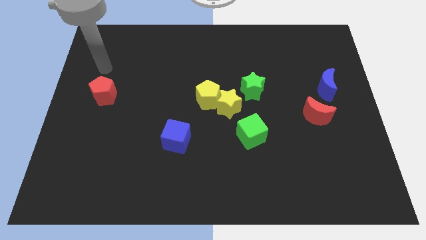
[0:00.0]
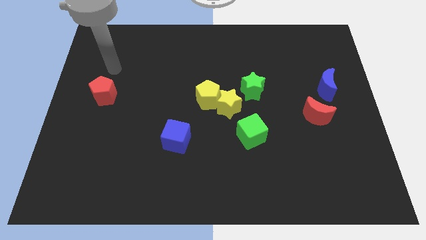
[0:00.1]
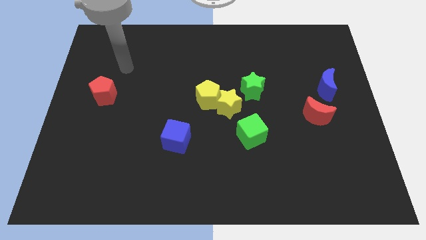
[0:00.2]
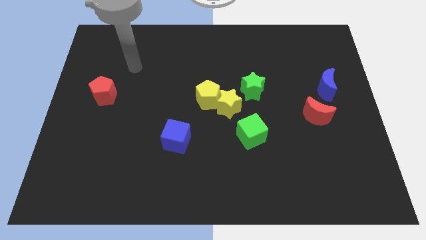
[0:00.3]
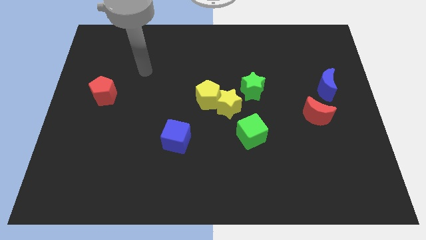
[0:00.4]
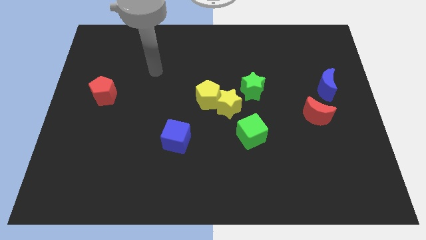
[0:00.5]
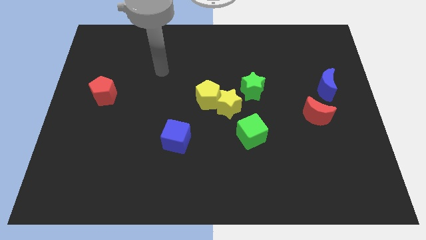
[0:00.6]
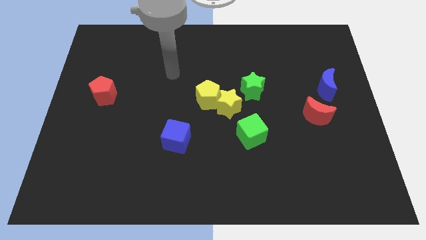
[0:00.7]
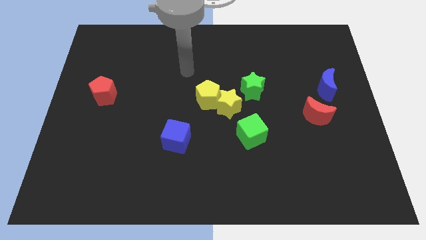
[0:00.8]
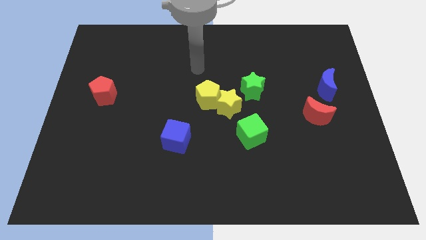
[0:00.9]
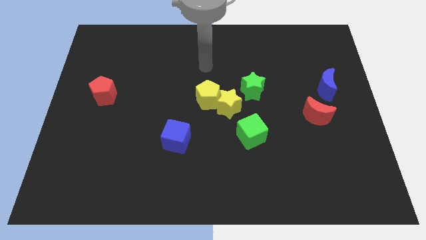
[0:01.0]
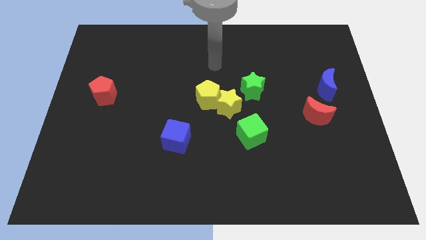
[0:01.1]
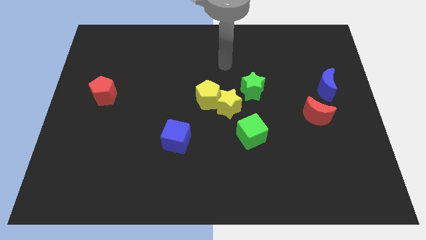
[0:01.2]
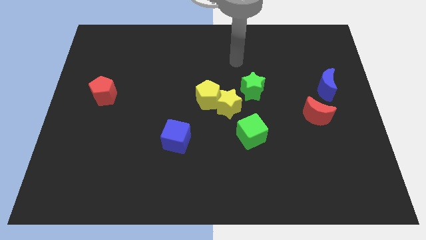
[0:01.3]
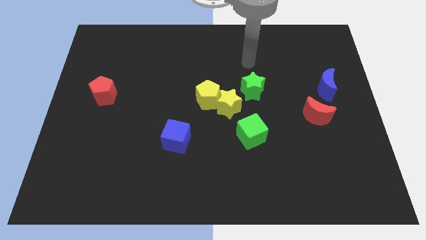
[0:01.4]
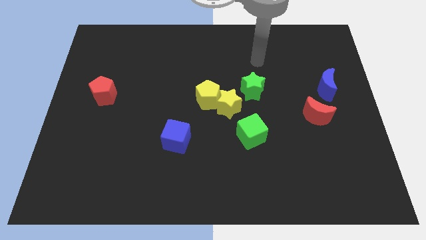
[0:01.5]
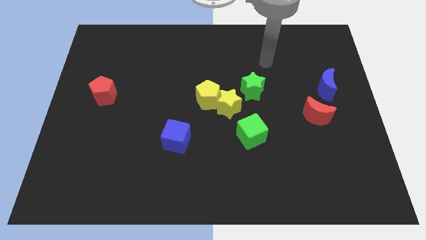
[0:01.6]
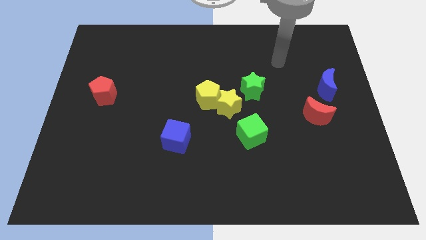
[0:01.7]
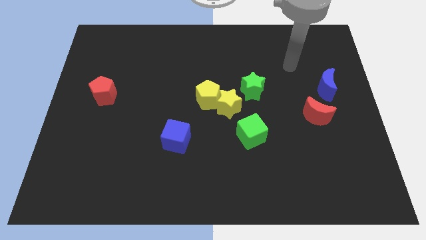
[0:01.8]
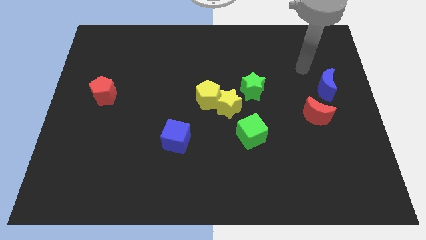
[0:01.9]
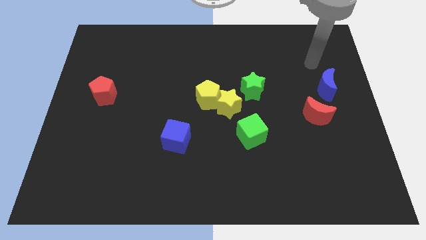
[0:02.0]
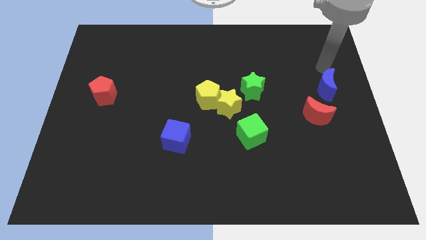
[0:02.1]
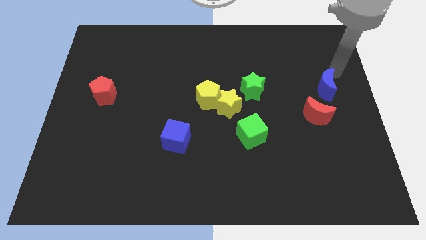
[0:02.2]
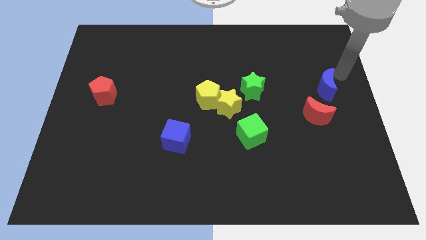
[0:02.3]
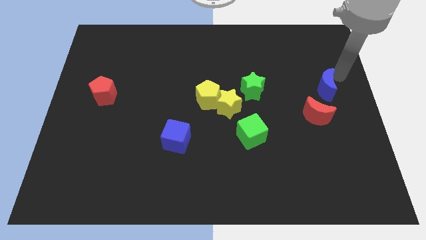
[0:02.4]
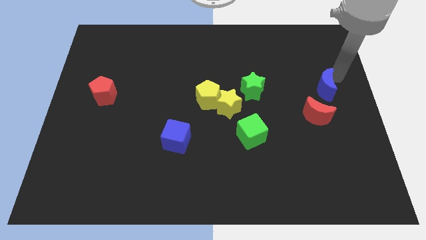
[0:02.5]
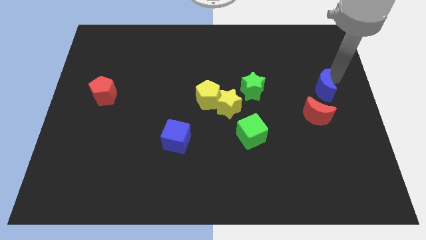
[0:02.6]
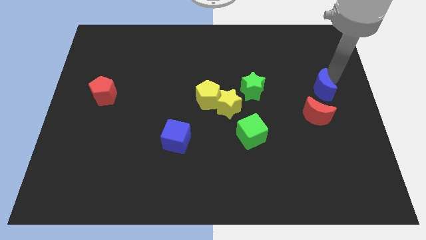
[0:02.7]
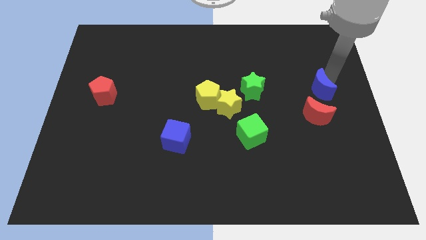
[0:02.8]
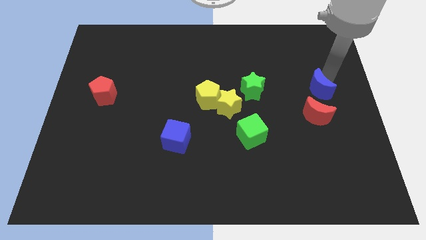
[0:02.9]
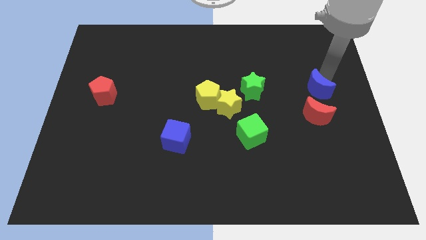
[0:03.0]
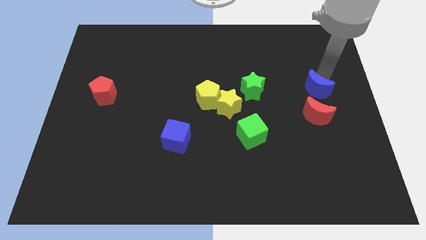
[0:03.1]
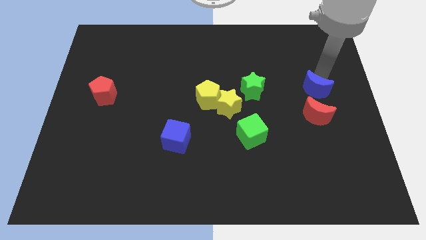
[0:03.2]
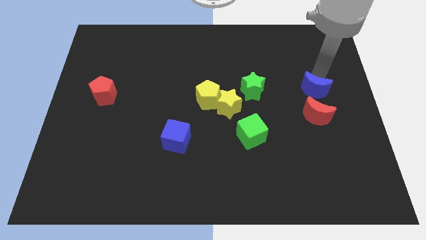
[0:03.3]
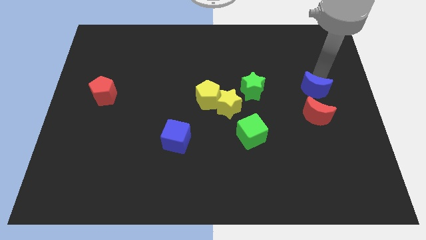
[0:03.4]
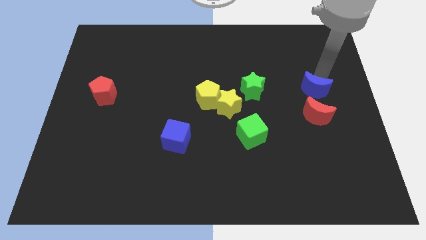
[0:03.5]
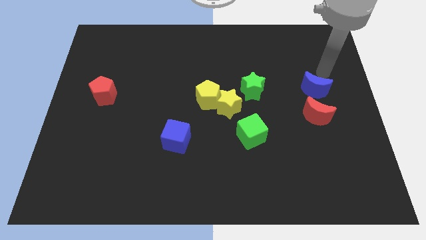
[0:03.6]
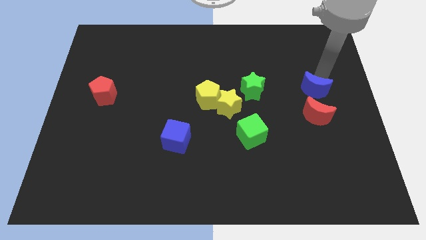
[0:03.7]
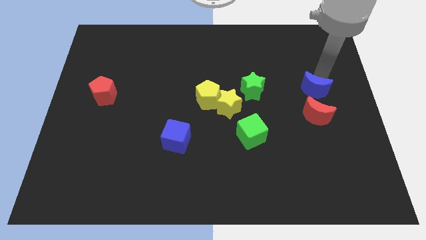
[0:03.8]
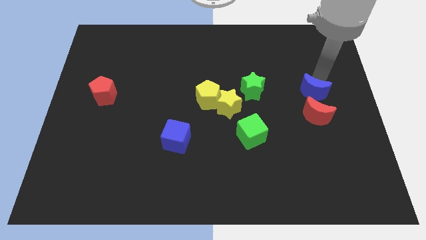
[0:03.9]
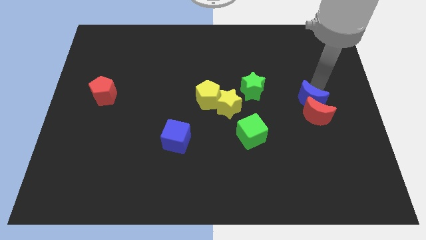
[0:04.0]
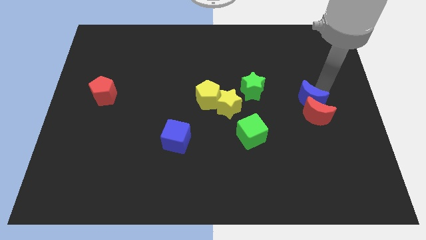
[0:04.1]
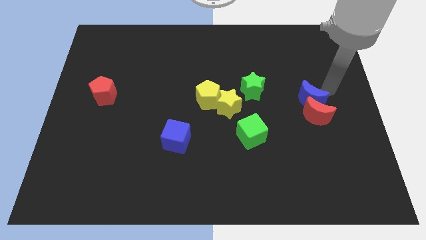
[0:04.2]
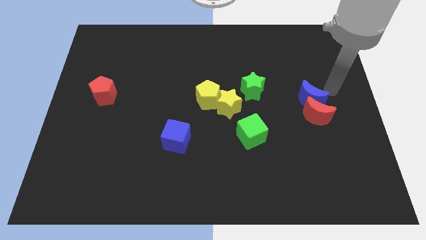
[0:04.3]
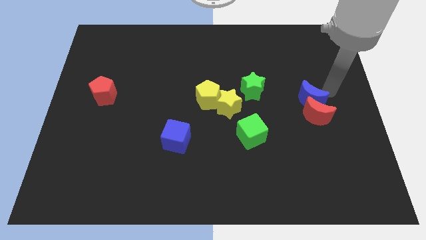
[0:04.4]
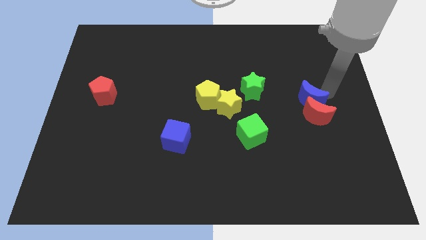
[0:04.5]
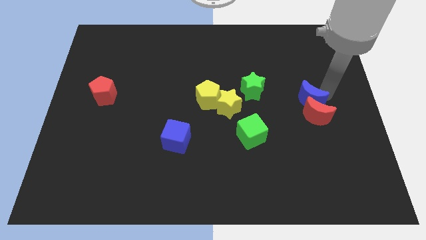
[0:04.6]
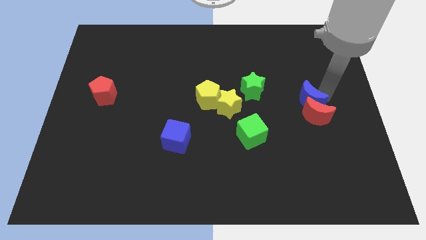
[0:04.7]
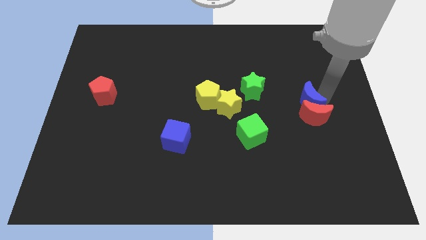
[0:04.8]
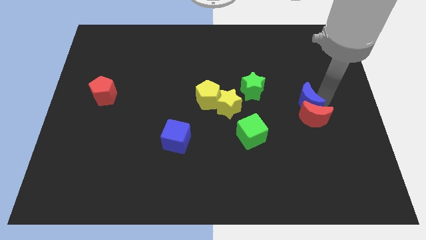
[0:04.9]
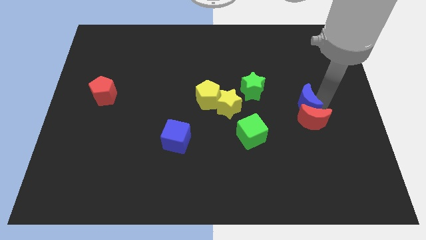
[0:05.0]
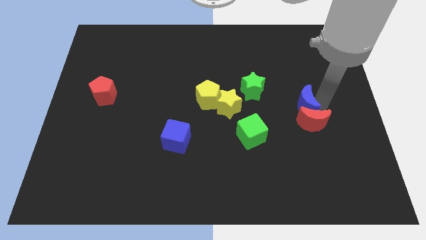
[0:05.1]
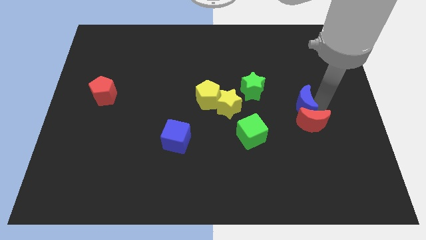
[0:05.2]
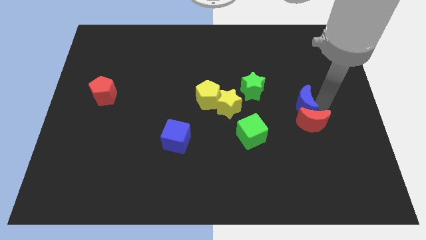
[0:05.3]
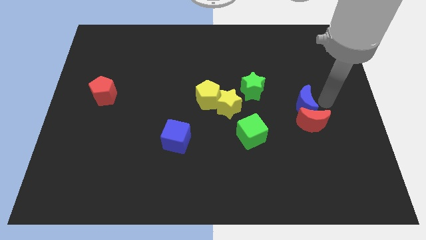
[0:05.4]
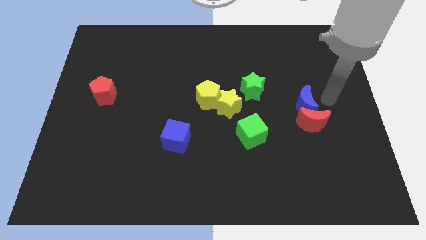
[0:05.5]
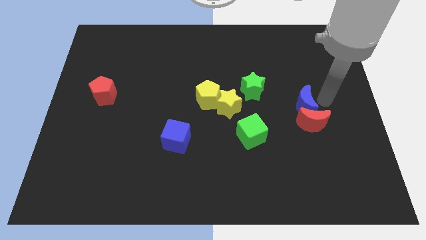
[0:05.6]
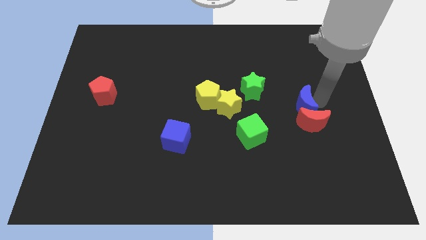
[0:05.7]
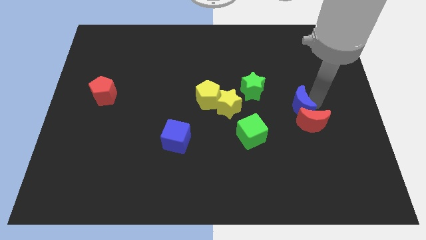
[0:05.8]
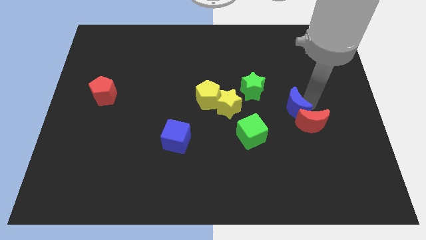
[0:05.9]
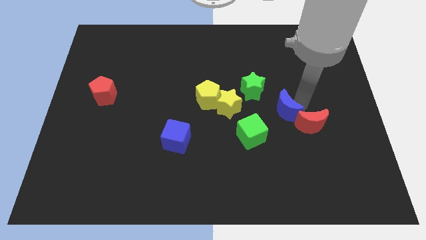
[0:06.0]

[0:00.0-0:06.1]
push the blue moon left of the red moon

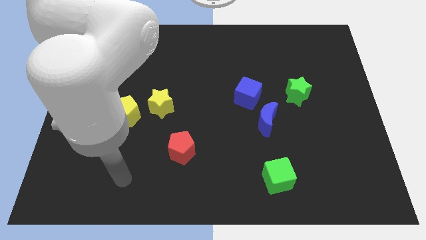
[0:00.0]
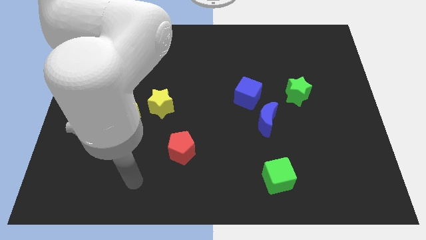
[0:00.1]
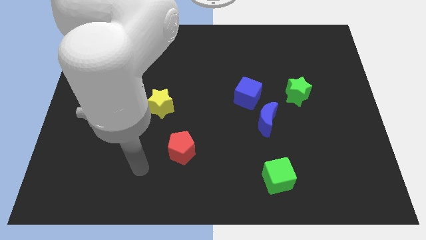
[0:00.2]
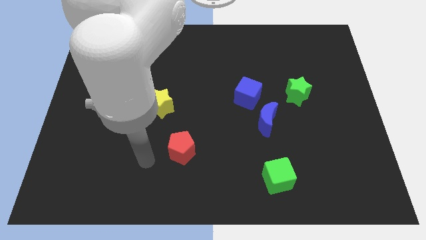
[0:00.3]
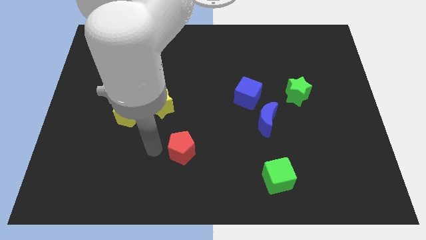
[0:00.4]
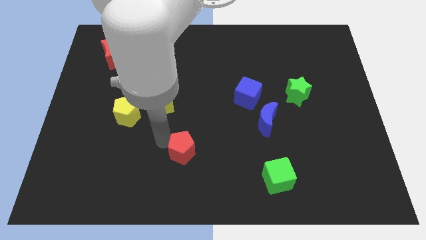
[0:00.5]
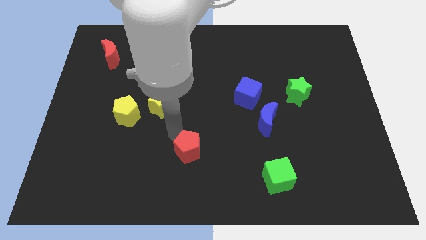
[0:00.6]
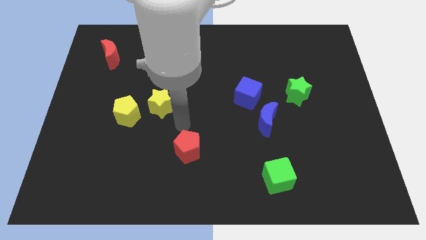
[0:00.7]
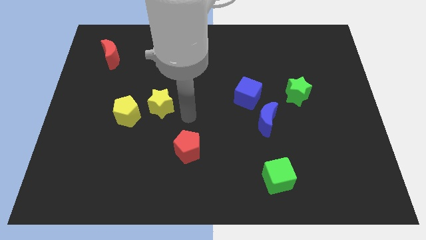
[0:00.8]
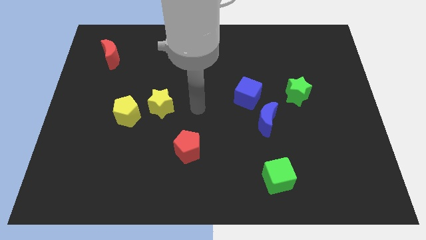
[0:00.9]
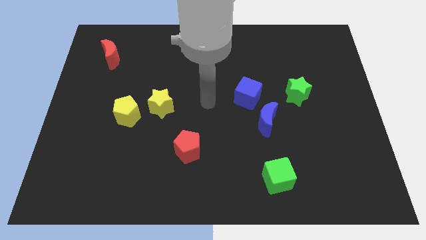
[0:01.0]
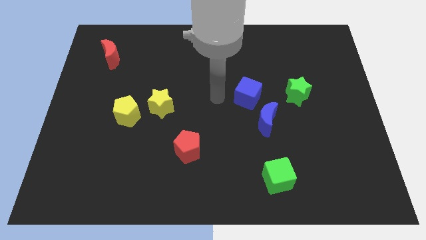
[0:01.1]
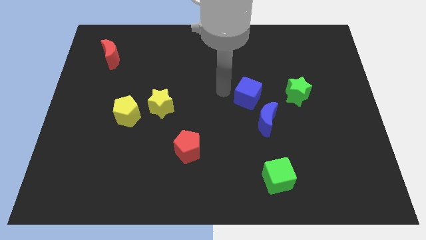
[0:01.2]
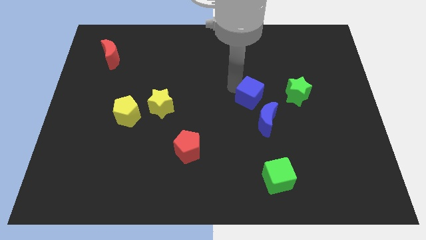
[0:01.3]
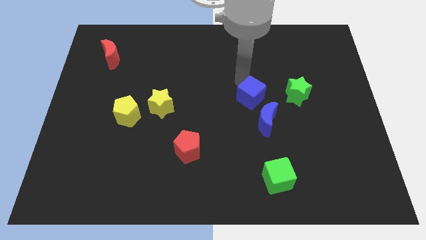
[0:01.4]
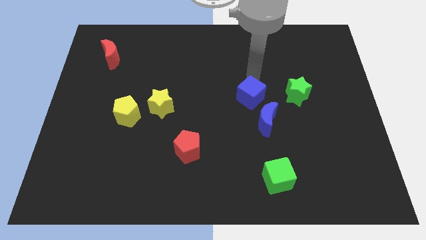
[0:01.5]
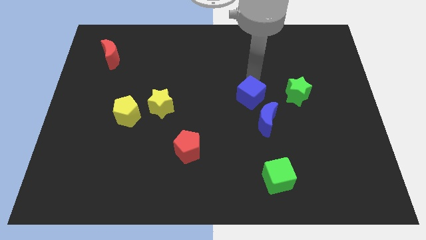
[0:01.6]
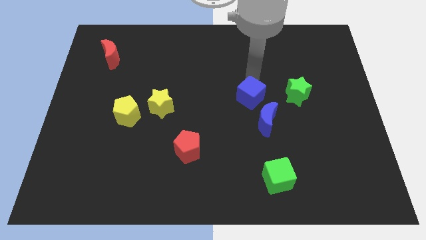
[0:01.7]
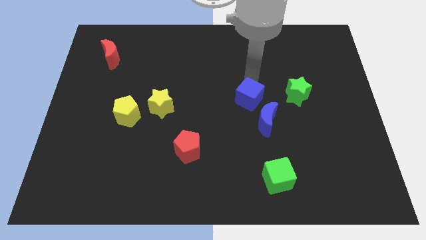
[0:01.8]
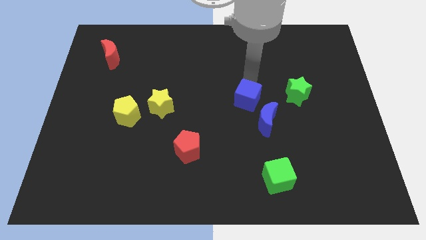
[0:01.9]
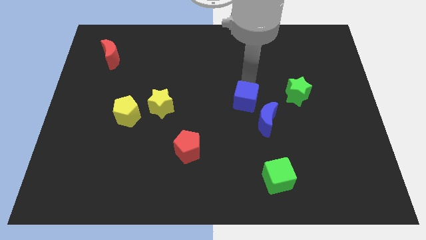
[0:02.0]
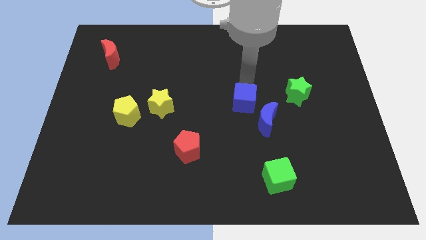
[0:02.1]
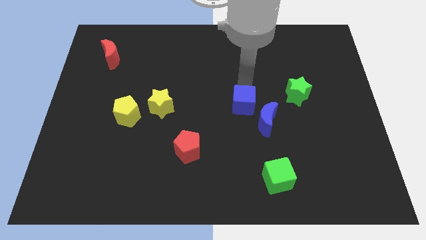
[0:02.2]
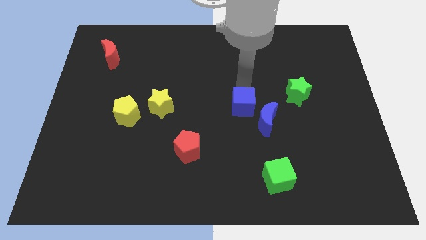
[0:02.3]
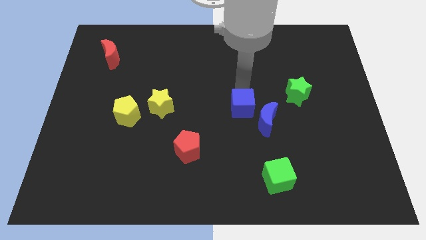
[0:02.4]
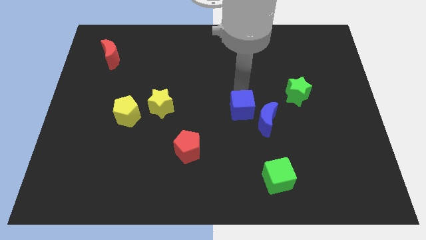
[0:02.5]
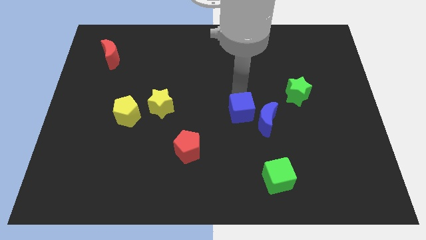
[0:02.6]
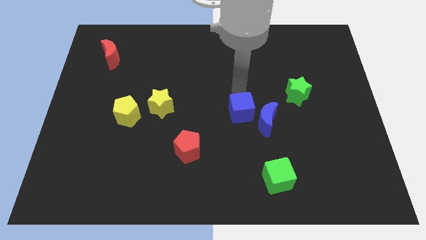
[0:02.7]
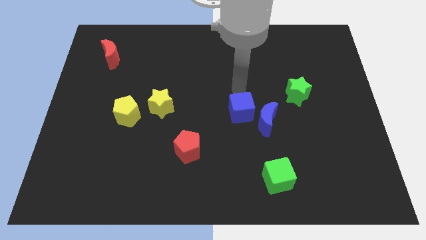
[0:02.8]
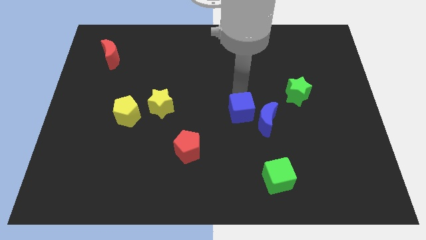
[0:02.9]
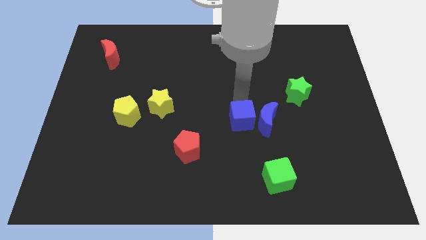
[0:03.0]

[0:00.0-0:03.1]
move the blue cube to the bottom left of the blue moon
